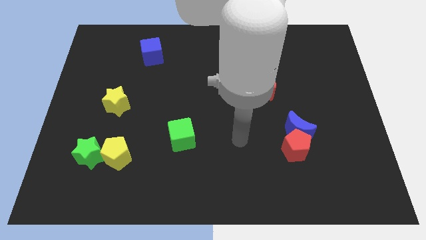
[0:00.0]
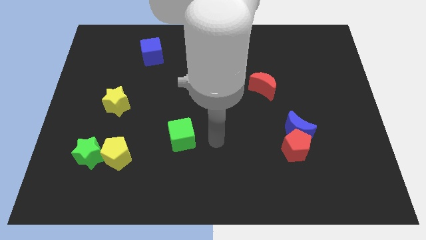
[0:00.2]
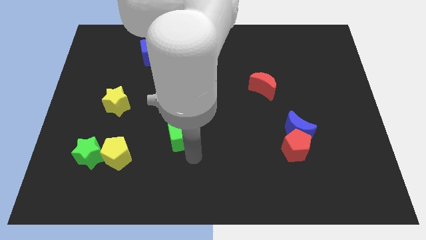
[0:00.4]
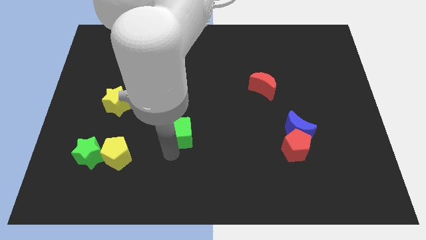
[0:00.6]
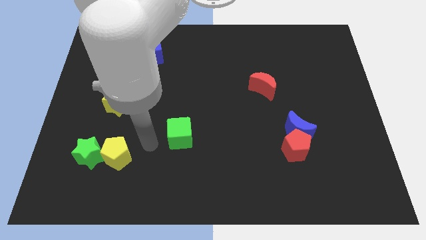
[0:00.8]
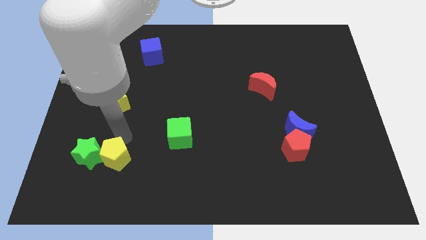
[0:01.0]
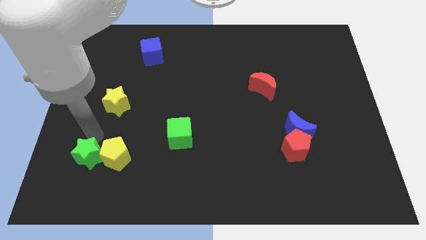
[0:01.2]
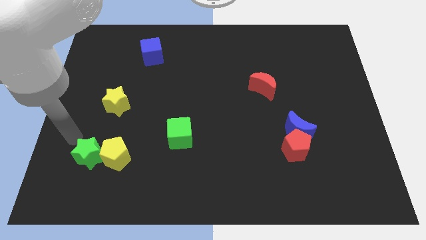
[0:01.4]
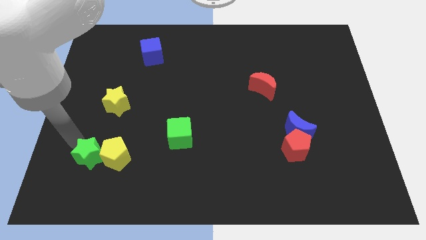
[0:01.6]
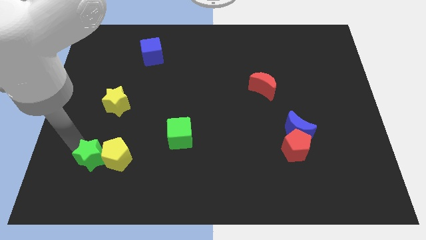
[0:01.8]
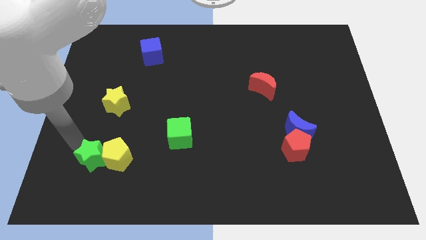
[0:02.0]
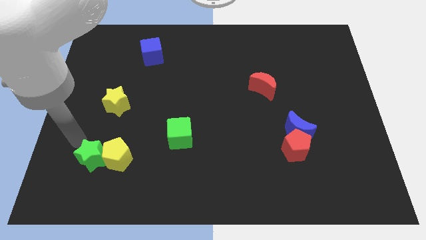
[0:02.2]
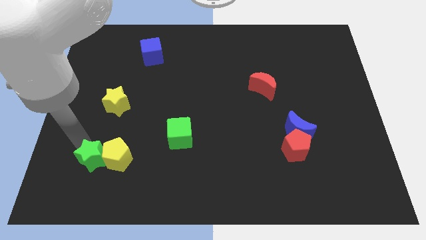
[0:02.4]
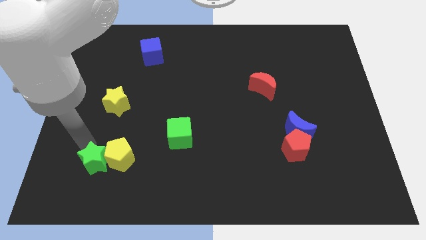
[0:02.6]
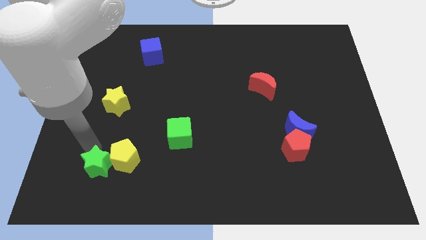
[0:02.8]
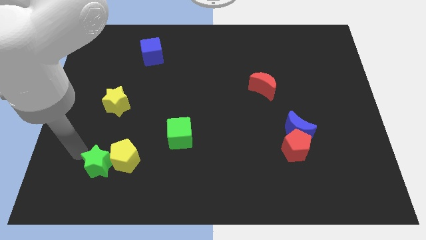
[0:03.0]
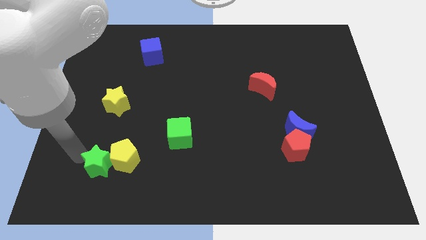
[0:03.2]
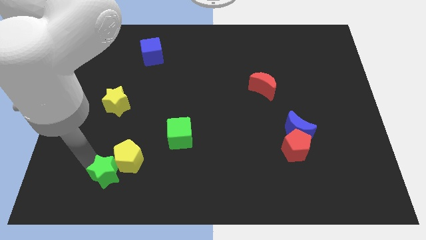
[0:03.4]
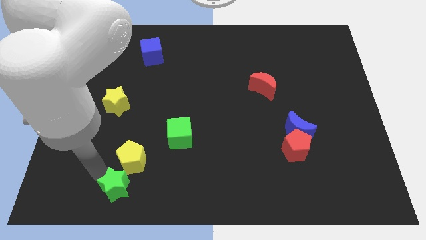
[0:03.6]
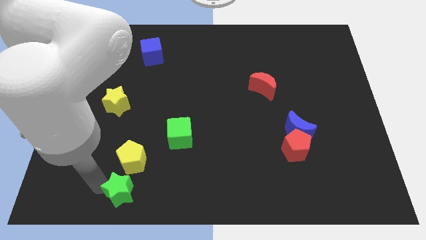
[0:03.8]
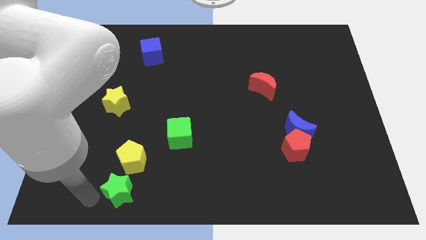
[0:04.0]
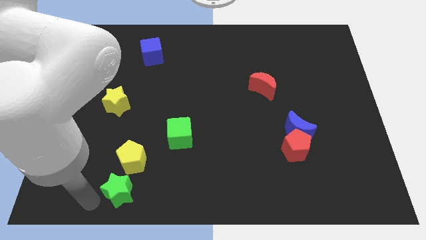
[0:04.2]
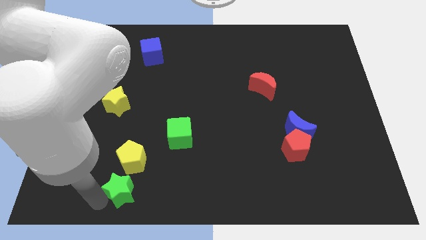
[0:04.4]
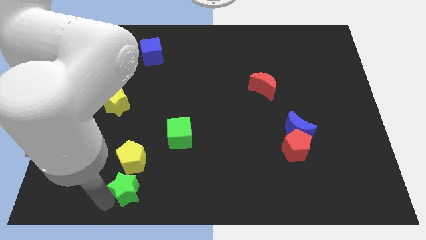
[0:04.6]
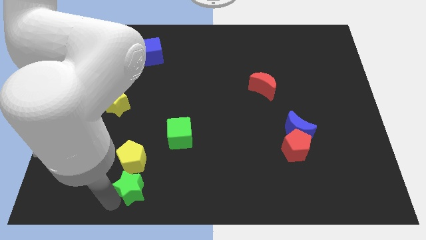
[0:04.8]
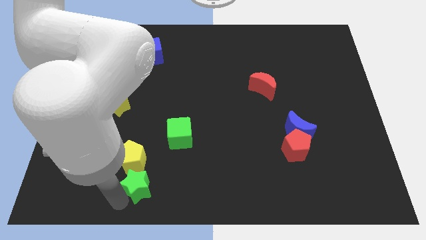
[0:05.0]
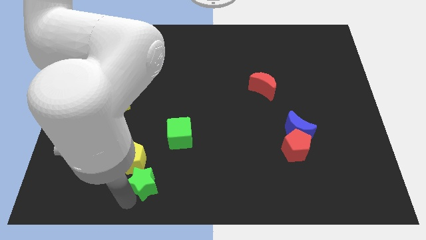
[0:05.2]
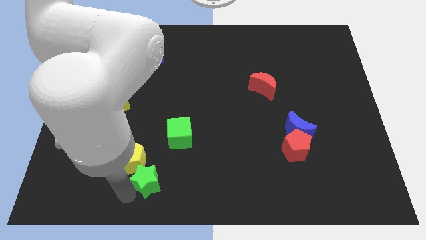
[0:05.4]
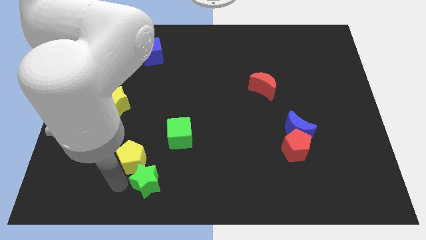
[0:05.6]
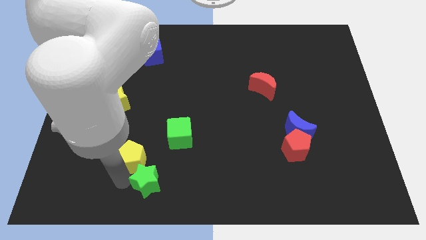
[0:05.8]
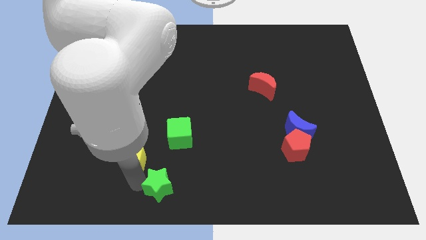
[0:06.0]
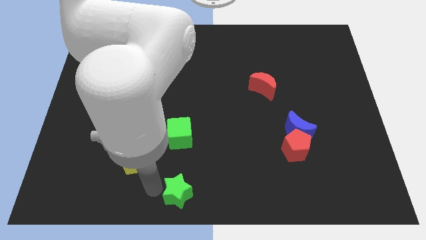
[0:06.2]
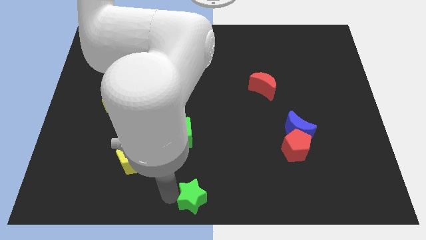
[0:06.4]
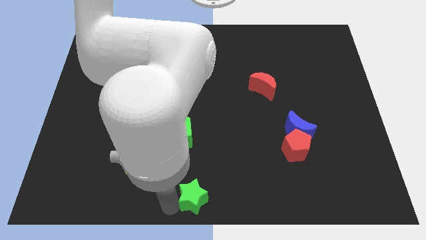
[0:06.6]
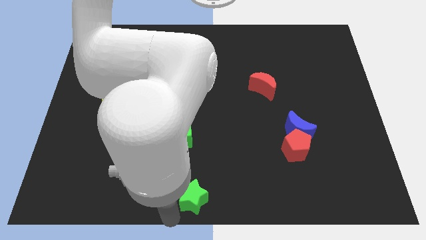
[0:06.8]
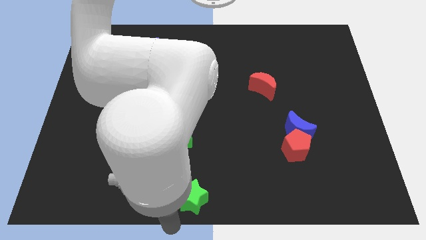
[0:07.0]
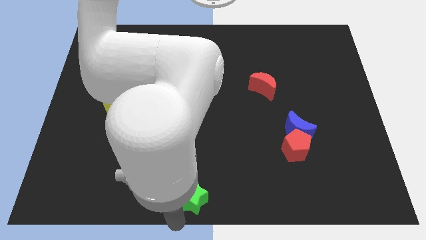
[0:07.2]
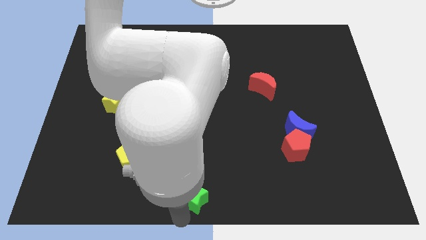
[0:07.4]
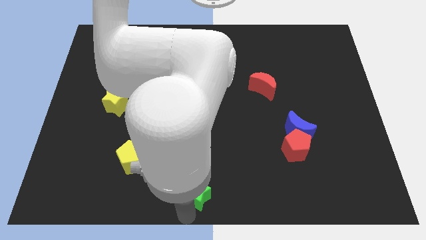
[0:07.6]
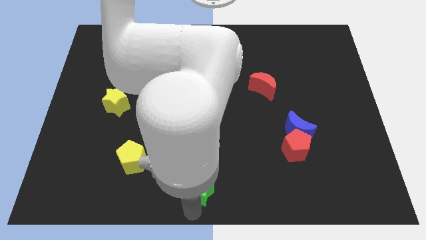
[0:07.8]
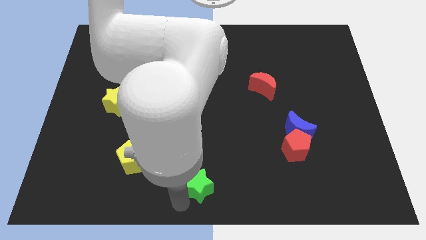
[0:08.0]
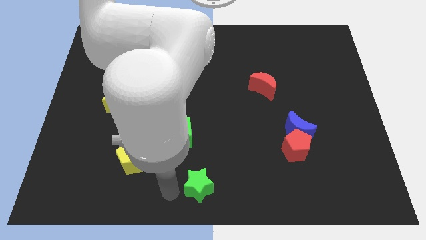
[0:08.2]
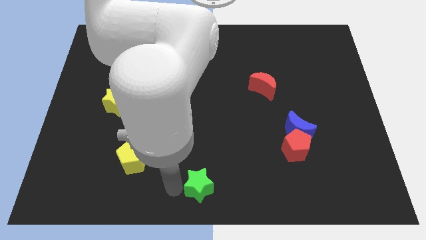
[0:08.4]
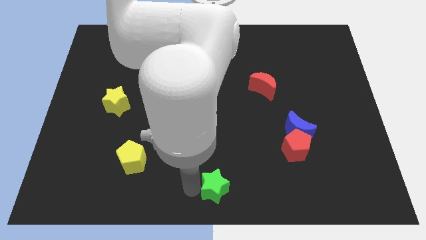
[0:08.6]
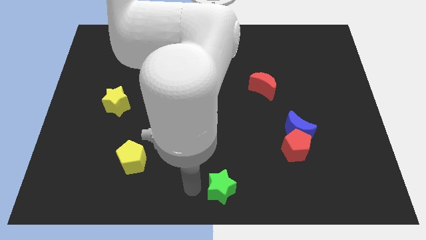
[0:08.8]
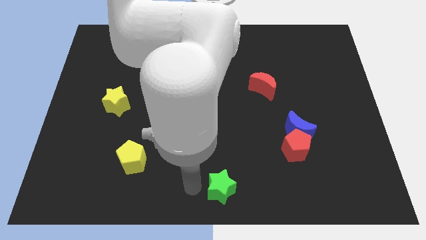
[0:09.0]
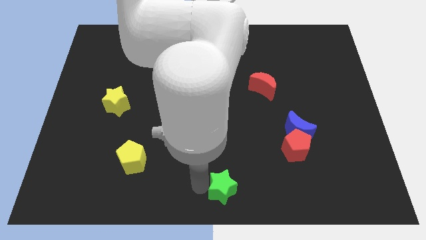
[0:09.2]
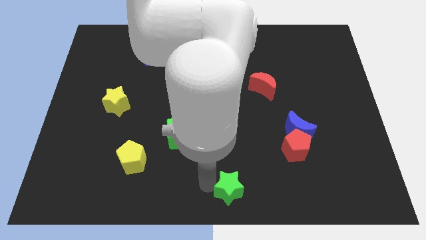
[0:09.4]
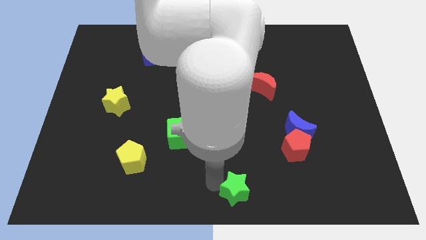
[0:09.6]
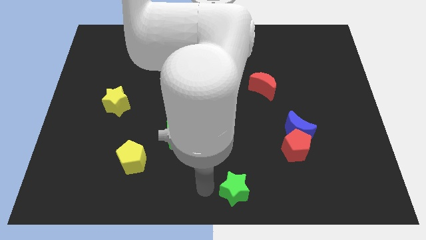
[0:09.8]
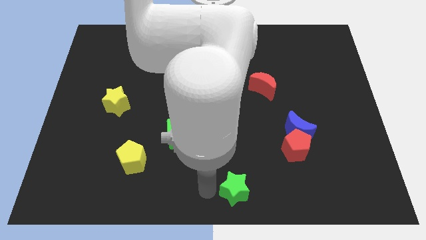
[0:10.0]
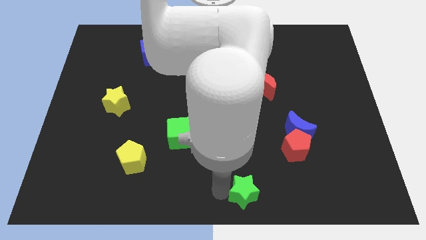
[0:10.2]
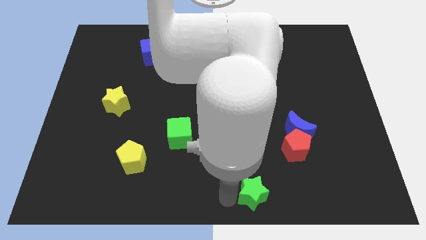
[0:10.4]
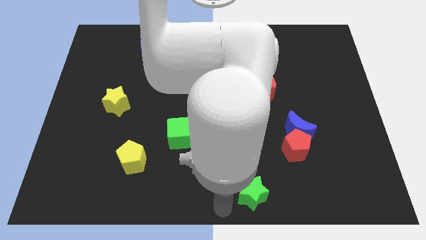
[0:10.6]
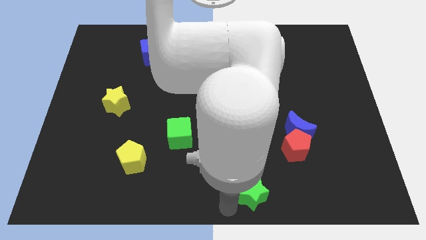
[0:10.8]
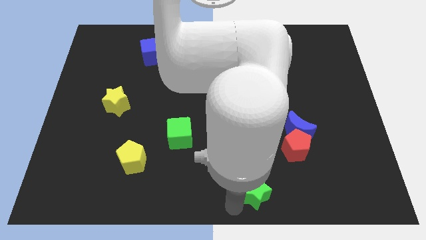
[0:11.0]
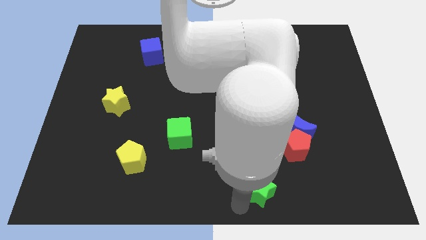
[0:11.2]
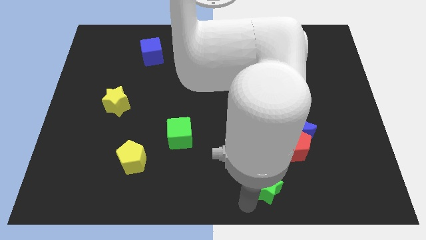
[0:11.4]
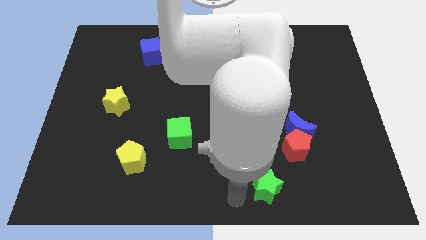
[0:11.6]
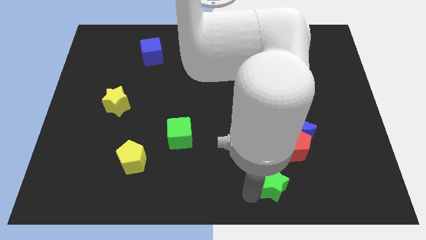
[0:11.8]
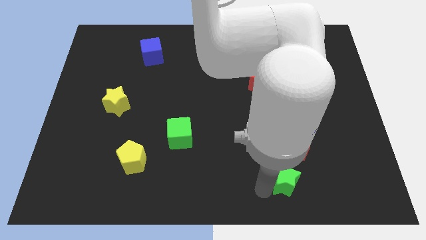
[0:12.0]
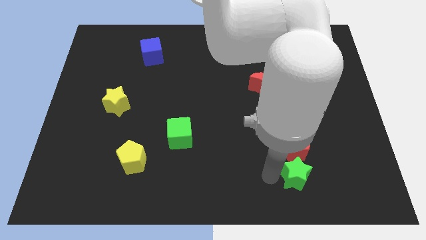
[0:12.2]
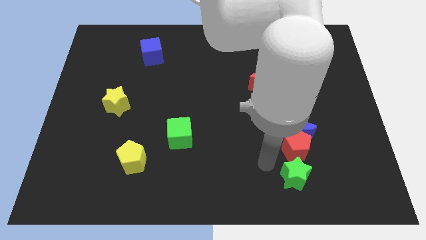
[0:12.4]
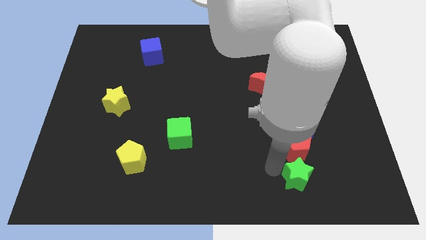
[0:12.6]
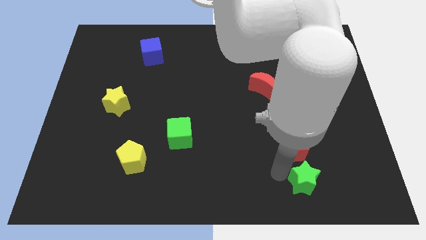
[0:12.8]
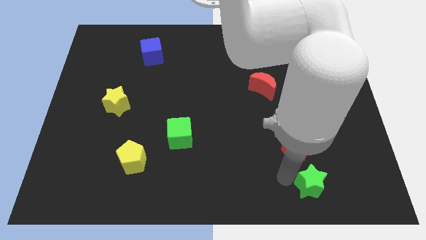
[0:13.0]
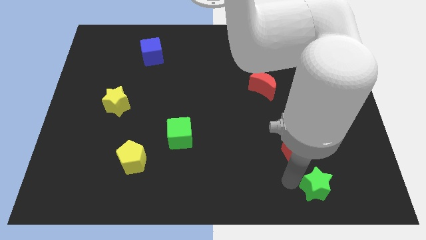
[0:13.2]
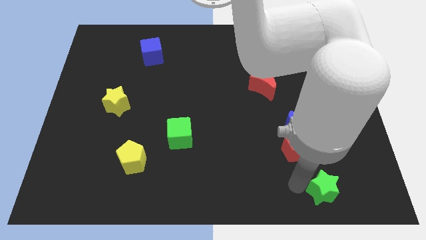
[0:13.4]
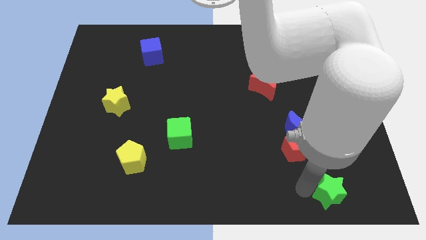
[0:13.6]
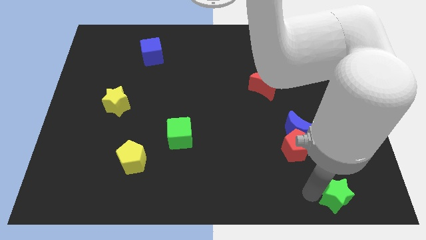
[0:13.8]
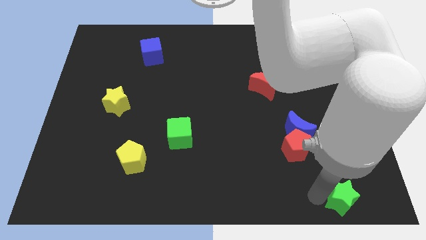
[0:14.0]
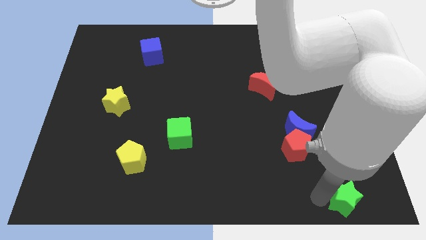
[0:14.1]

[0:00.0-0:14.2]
push the green star to the bottom right
